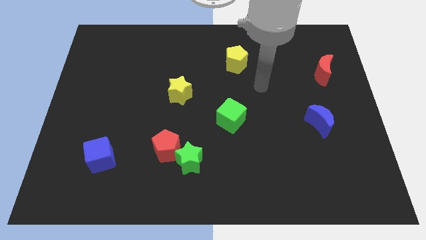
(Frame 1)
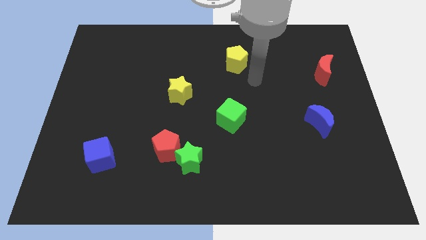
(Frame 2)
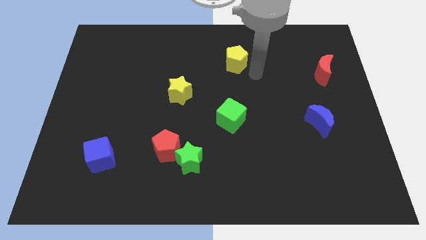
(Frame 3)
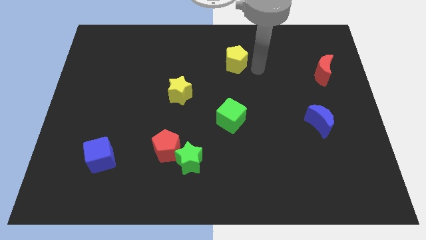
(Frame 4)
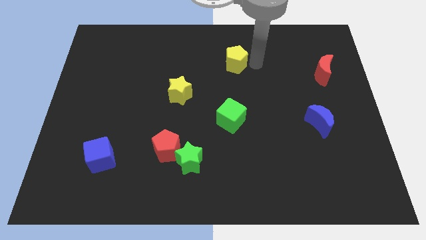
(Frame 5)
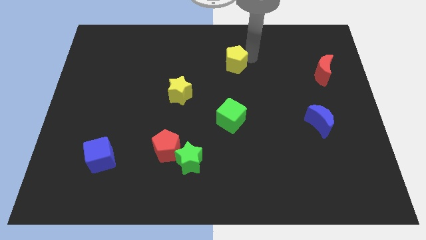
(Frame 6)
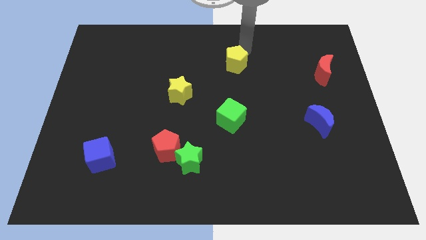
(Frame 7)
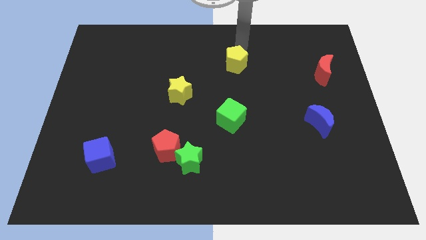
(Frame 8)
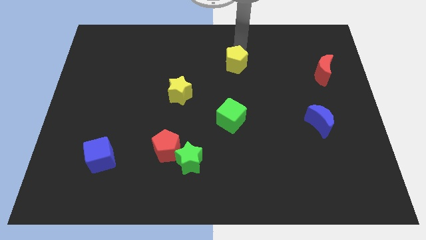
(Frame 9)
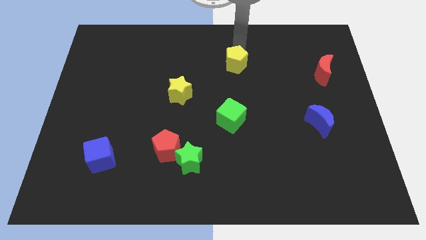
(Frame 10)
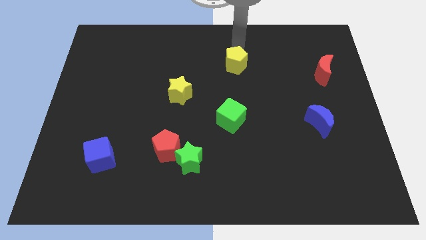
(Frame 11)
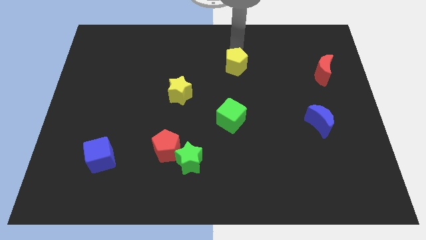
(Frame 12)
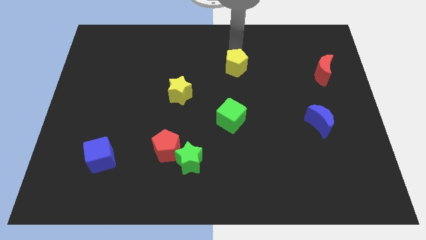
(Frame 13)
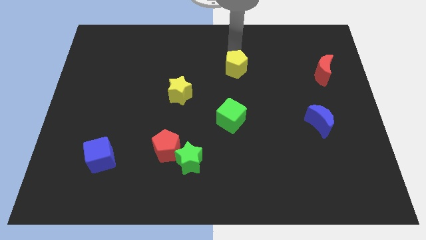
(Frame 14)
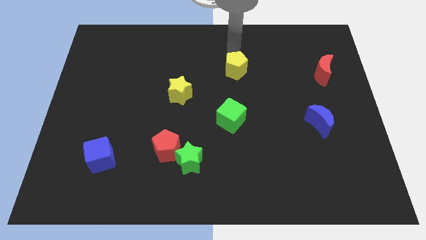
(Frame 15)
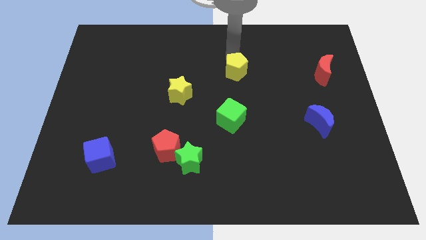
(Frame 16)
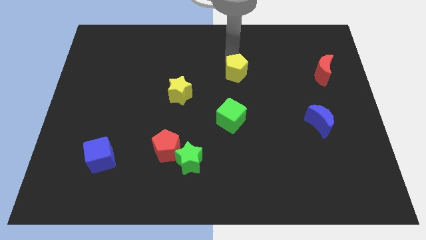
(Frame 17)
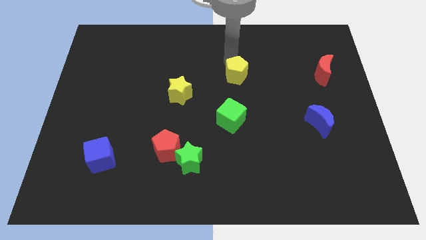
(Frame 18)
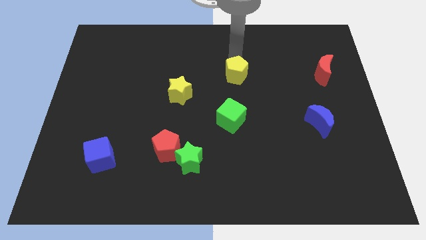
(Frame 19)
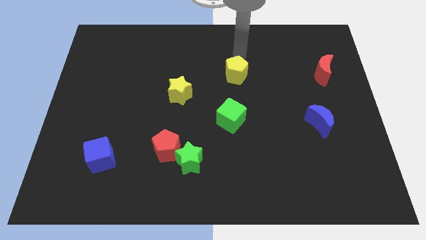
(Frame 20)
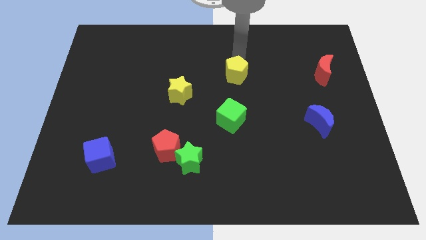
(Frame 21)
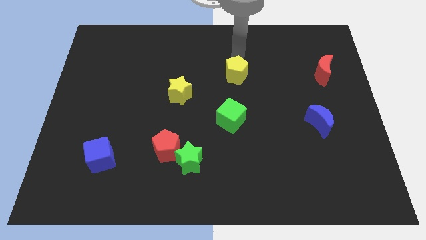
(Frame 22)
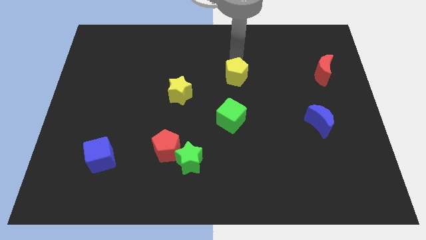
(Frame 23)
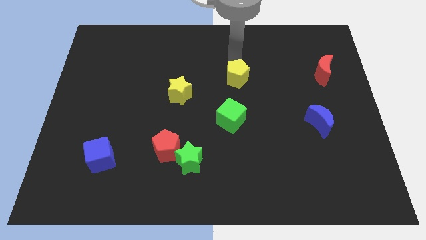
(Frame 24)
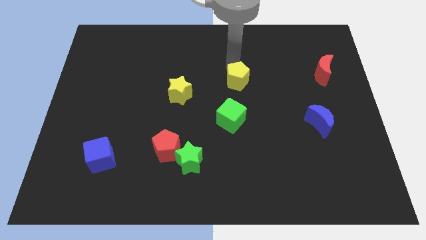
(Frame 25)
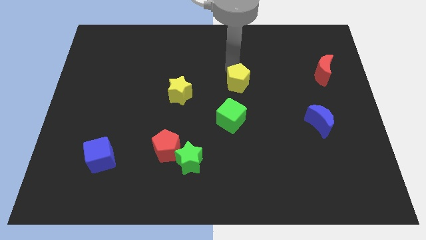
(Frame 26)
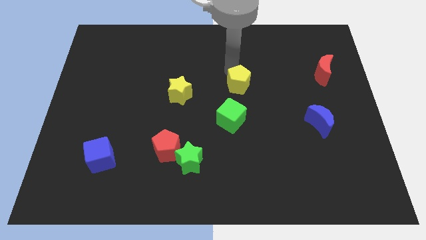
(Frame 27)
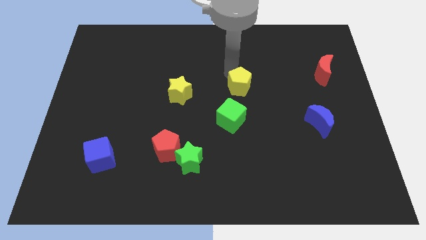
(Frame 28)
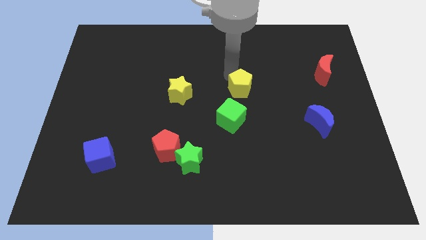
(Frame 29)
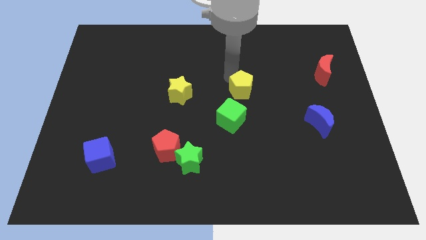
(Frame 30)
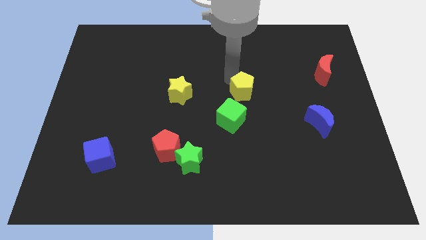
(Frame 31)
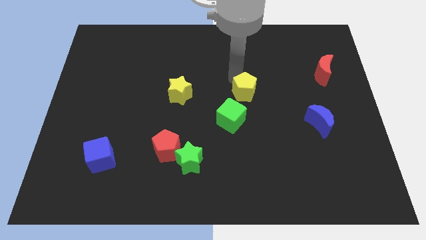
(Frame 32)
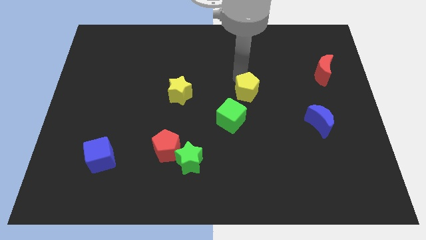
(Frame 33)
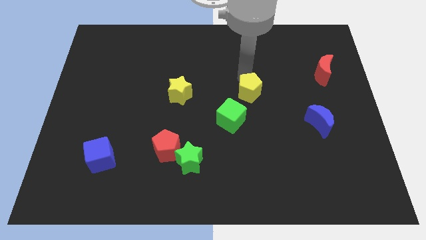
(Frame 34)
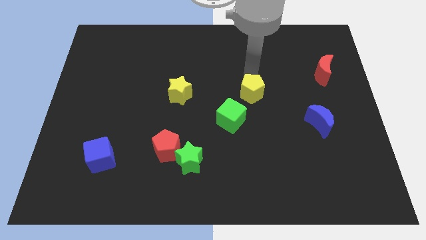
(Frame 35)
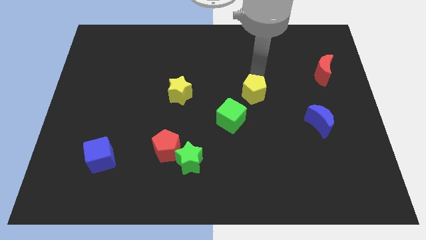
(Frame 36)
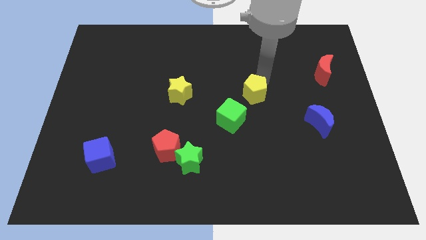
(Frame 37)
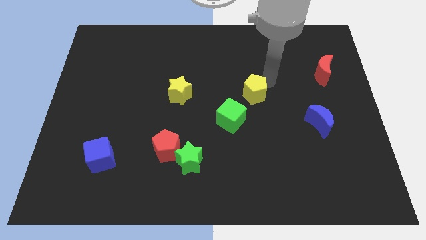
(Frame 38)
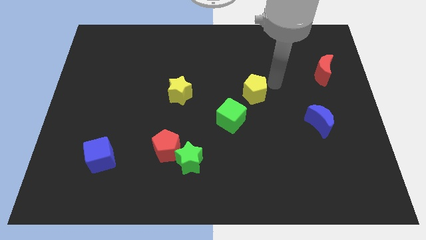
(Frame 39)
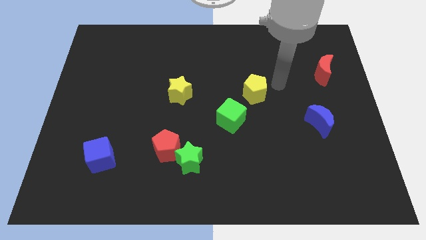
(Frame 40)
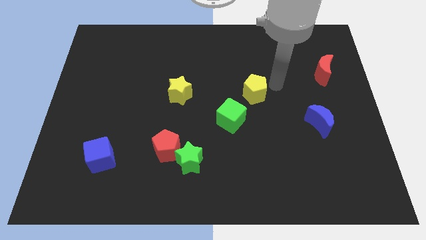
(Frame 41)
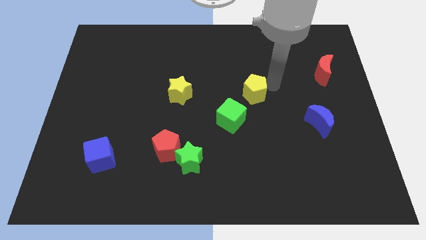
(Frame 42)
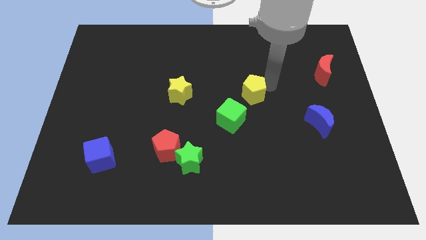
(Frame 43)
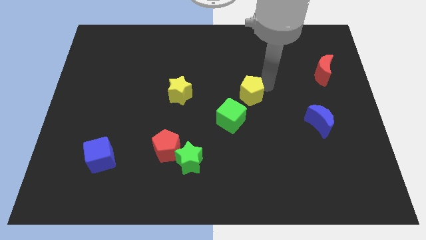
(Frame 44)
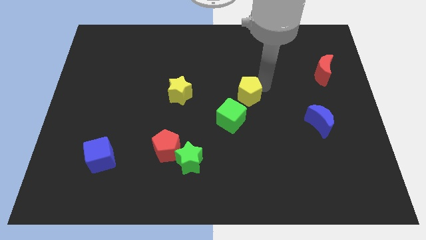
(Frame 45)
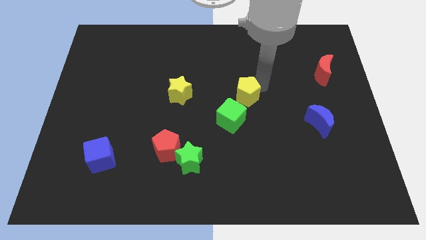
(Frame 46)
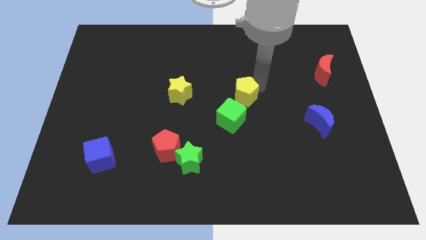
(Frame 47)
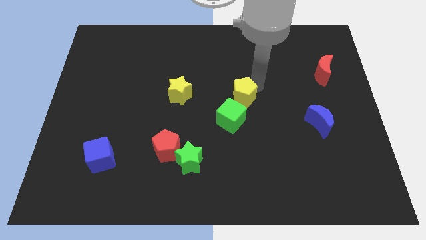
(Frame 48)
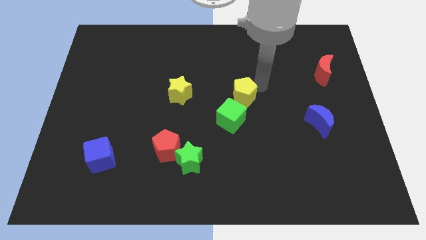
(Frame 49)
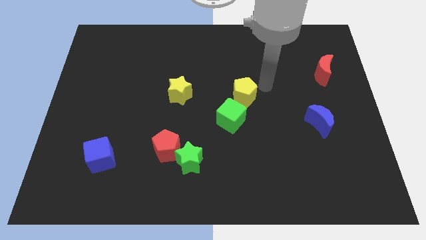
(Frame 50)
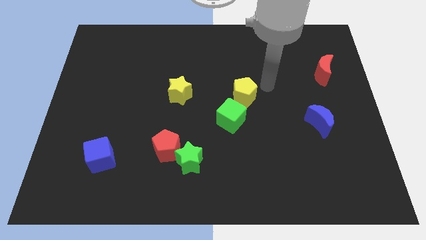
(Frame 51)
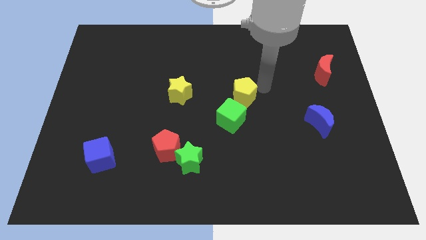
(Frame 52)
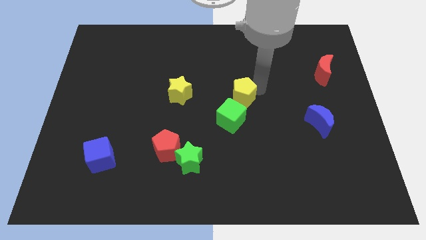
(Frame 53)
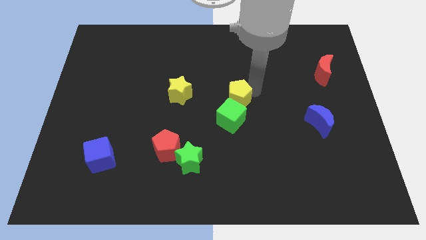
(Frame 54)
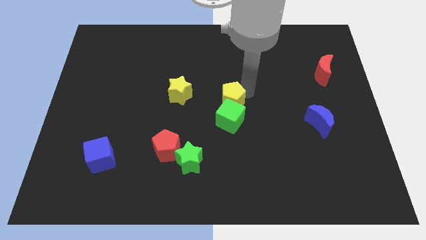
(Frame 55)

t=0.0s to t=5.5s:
push the yellow pentagon to the green cube

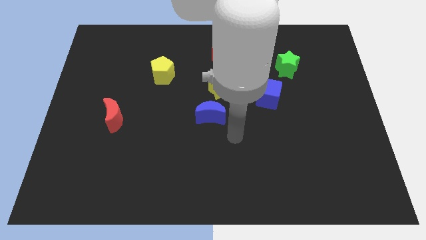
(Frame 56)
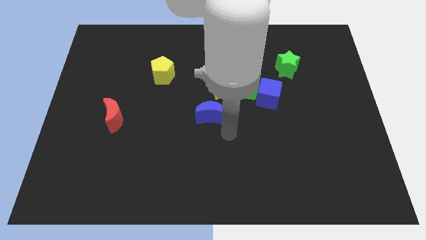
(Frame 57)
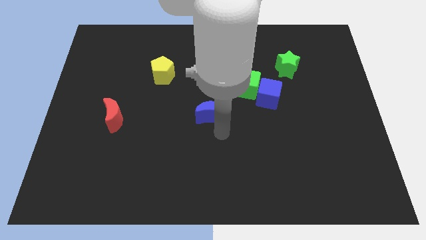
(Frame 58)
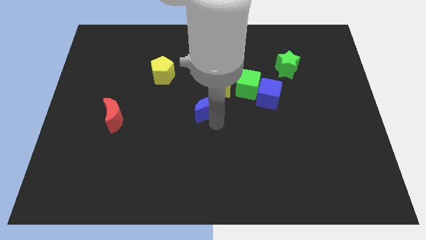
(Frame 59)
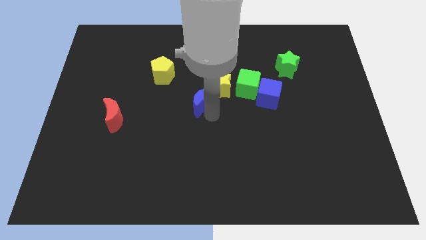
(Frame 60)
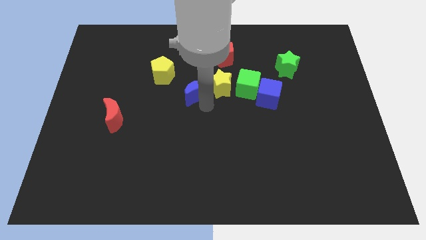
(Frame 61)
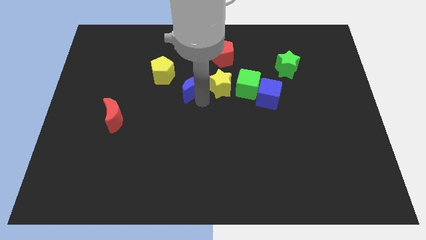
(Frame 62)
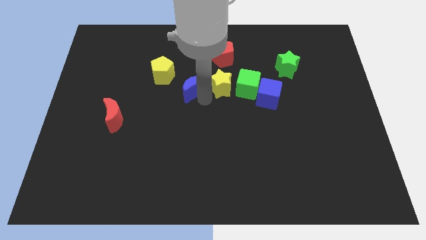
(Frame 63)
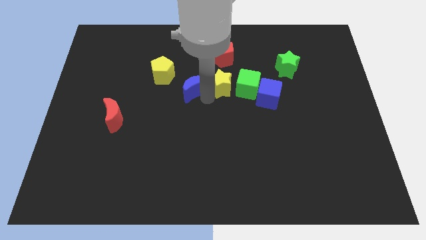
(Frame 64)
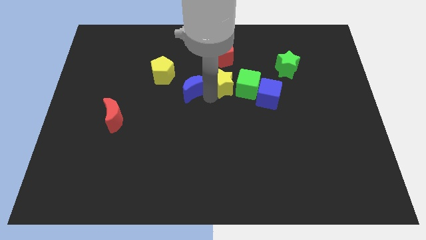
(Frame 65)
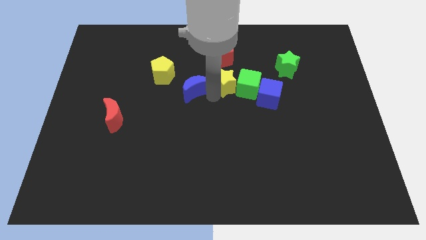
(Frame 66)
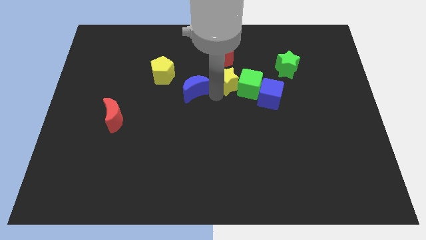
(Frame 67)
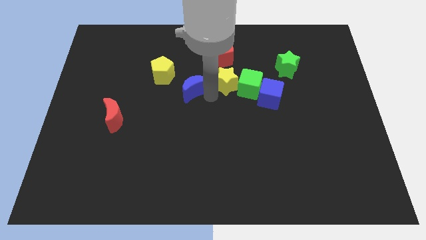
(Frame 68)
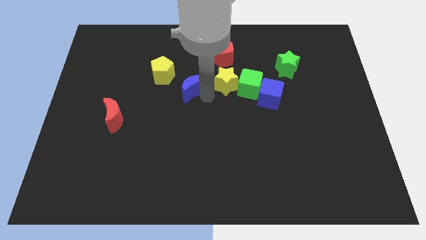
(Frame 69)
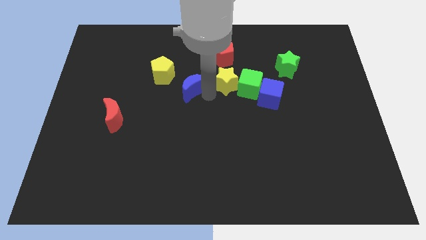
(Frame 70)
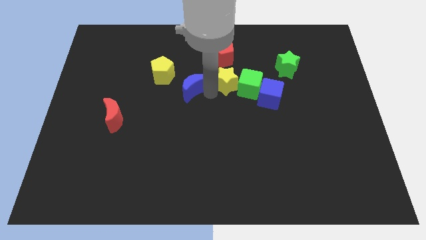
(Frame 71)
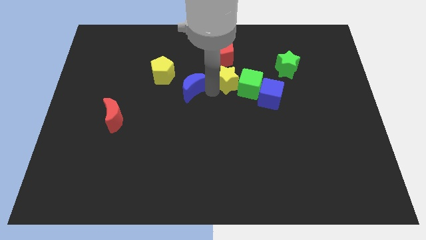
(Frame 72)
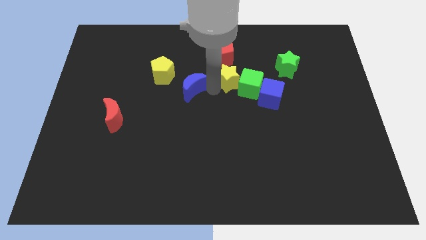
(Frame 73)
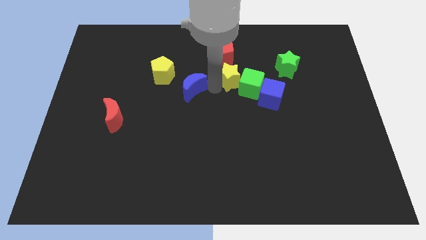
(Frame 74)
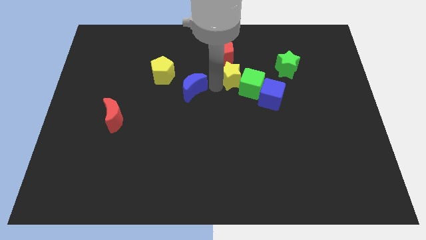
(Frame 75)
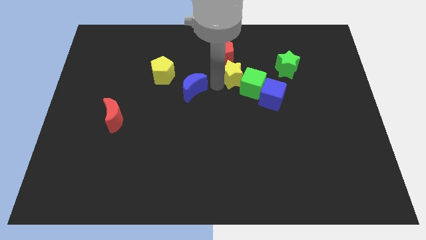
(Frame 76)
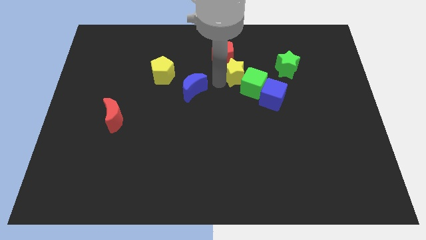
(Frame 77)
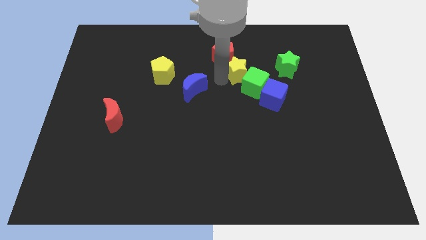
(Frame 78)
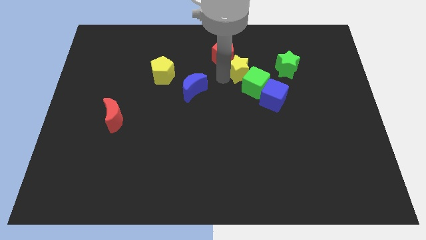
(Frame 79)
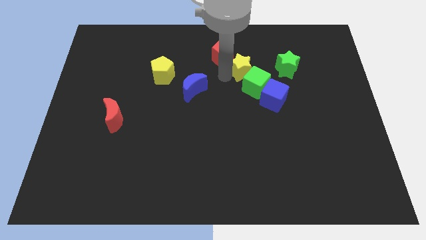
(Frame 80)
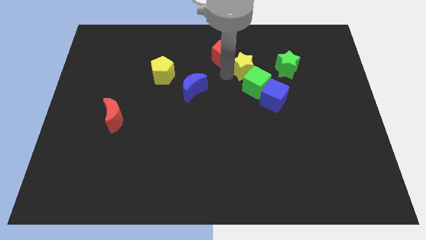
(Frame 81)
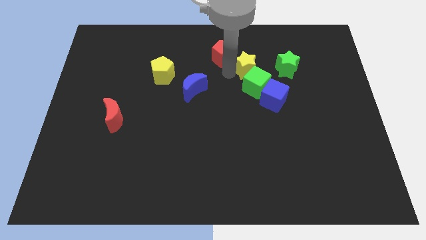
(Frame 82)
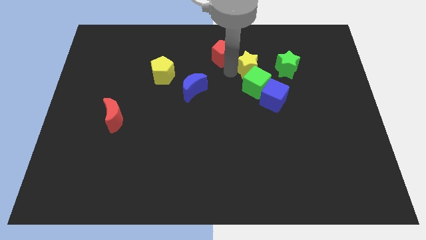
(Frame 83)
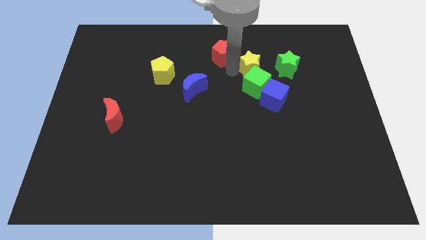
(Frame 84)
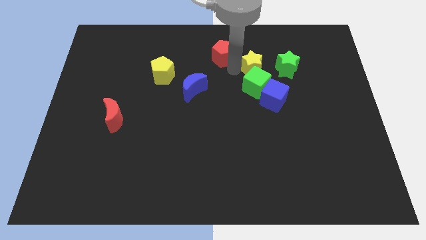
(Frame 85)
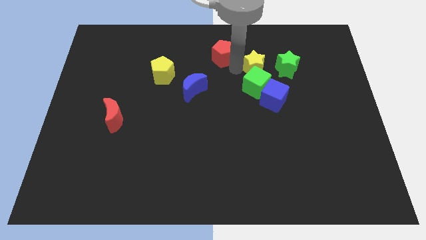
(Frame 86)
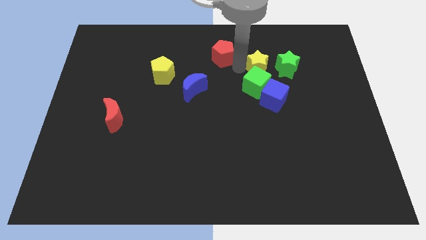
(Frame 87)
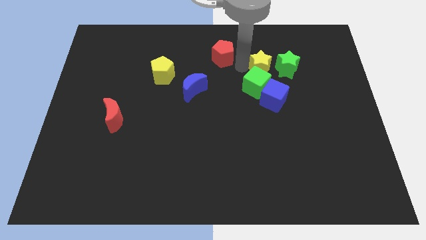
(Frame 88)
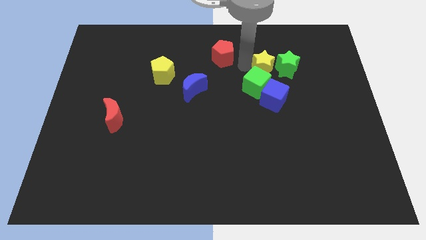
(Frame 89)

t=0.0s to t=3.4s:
slide the yellow star next to the green star
